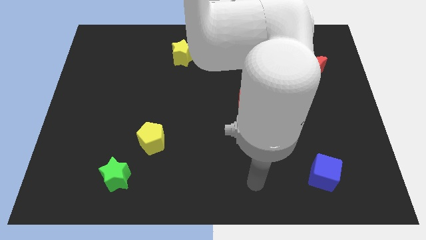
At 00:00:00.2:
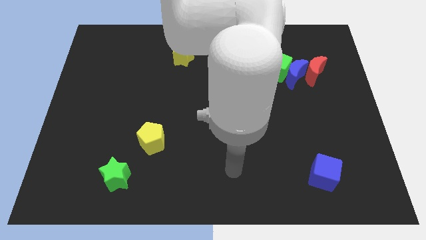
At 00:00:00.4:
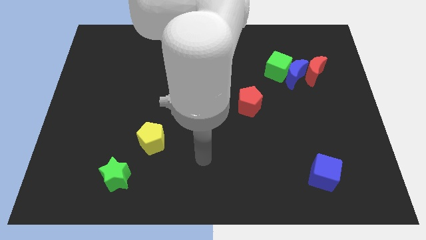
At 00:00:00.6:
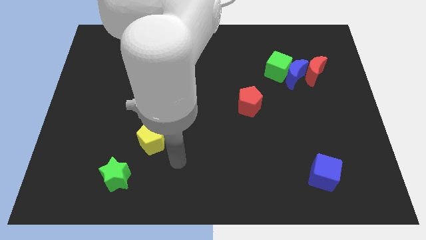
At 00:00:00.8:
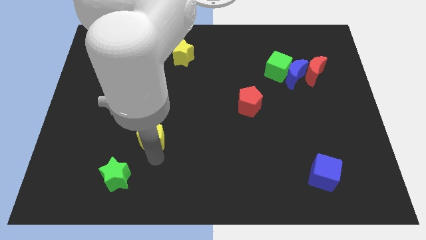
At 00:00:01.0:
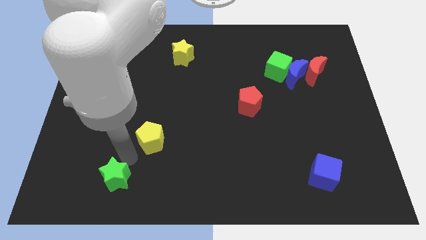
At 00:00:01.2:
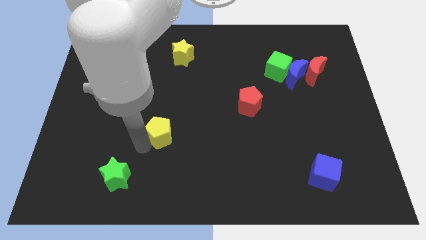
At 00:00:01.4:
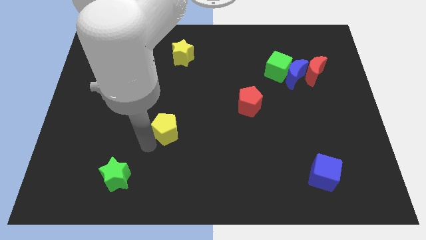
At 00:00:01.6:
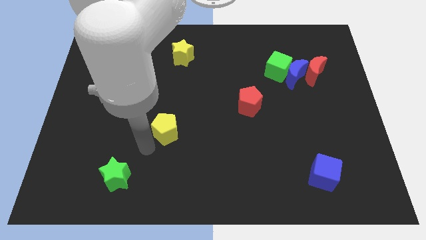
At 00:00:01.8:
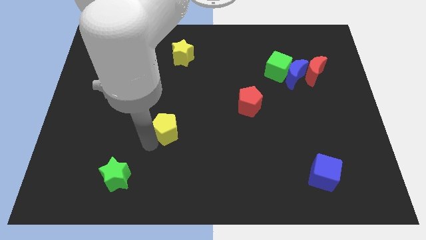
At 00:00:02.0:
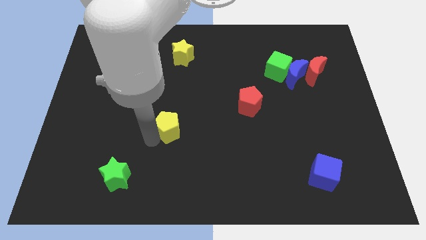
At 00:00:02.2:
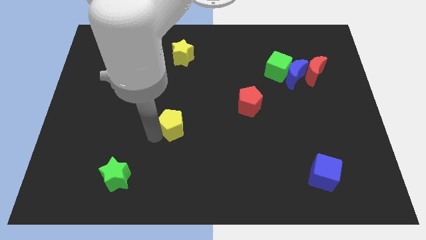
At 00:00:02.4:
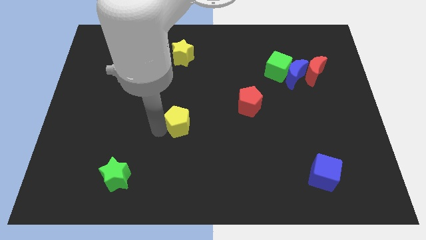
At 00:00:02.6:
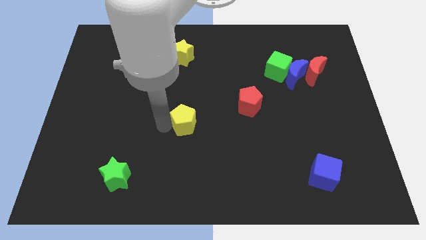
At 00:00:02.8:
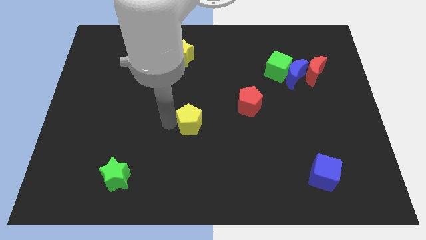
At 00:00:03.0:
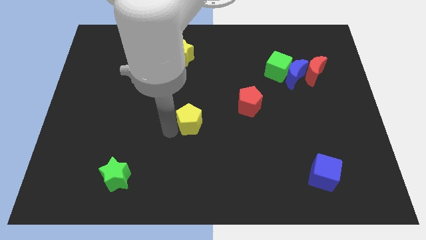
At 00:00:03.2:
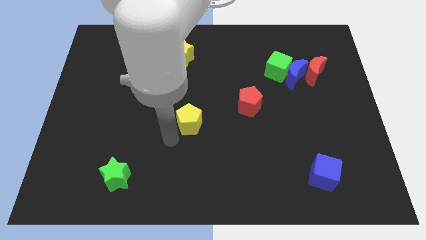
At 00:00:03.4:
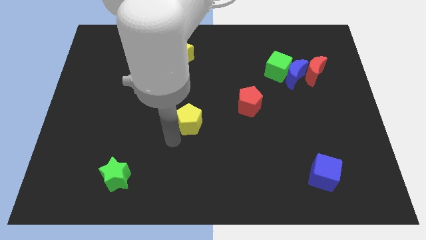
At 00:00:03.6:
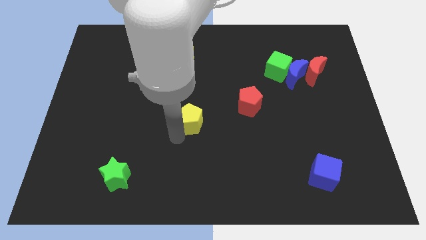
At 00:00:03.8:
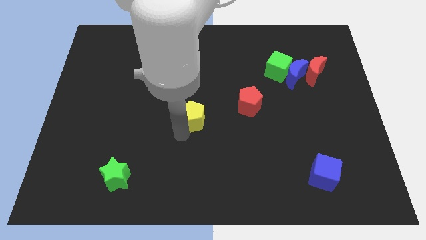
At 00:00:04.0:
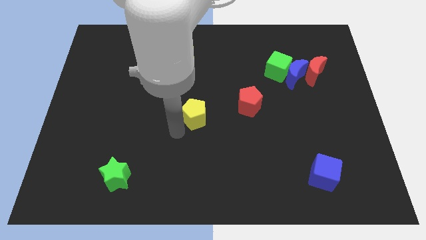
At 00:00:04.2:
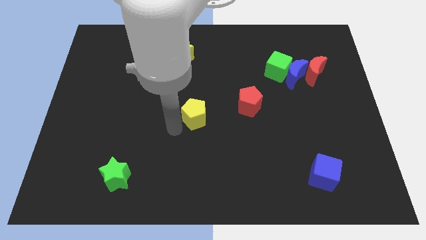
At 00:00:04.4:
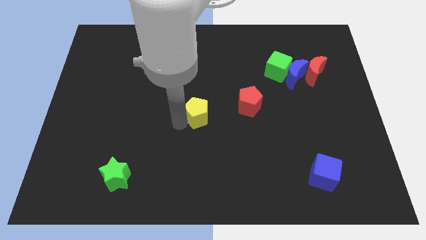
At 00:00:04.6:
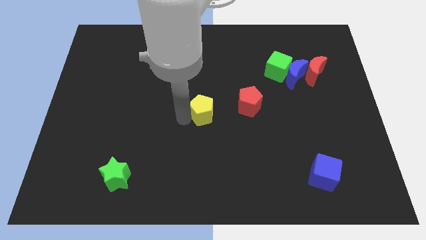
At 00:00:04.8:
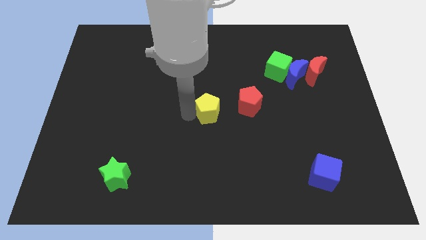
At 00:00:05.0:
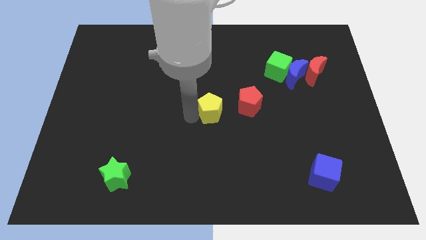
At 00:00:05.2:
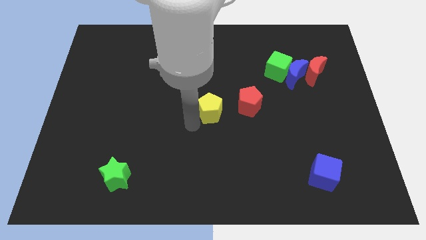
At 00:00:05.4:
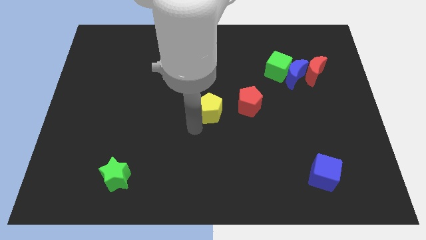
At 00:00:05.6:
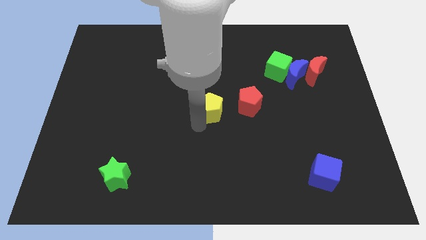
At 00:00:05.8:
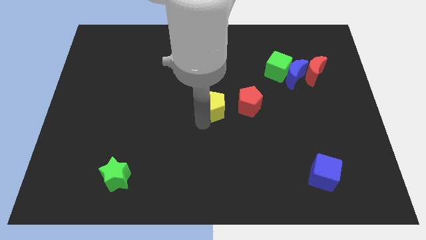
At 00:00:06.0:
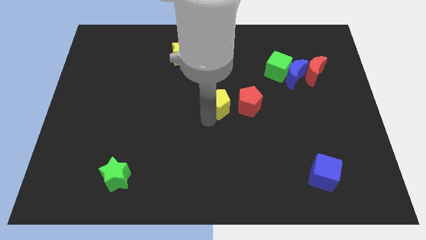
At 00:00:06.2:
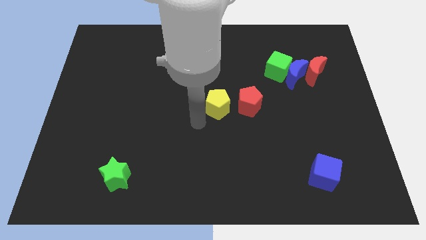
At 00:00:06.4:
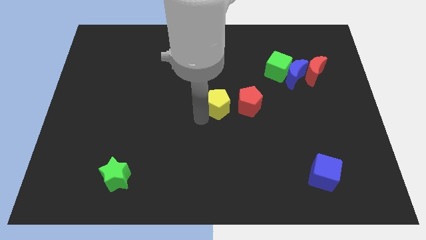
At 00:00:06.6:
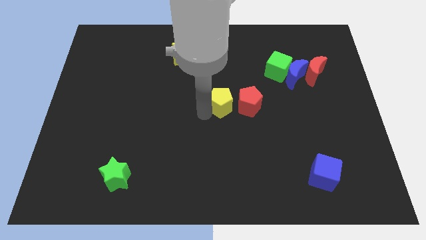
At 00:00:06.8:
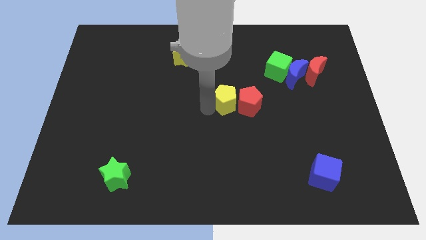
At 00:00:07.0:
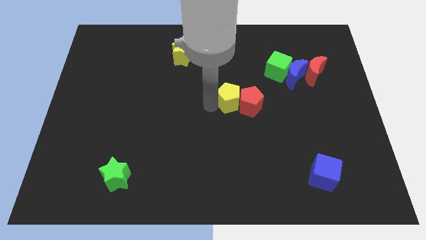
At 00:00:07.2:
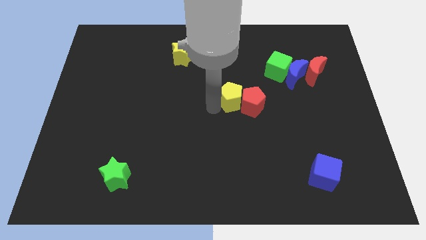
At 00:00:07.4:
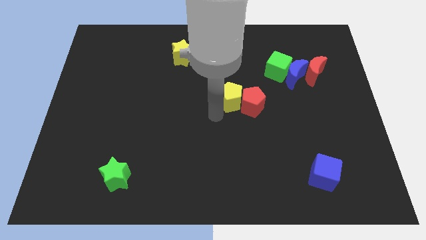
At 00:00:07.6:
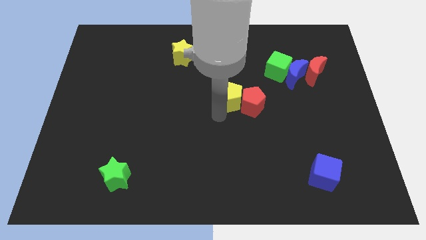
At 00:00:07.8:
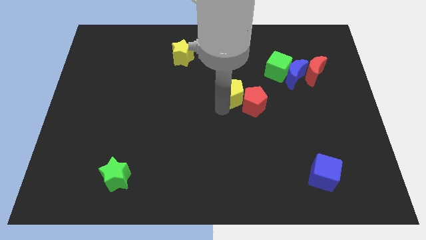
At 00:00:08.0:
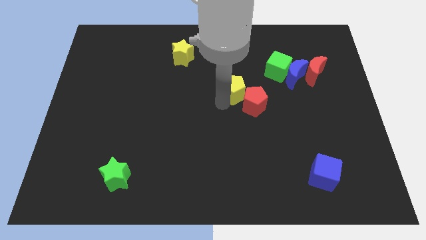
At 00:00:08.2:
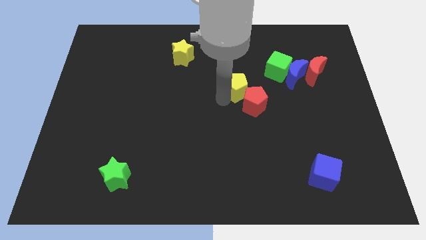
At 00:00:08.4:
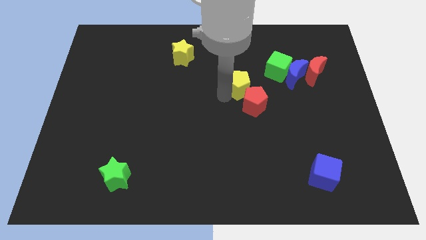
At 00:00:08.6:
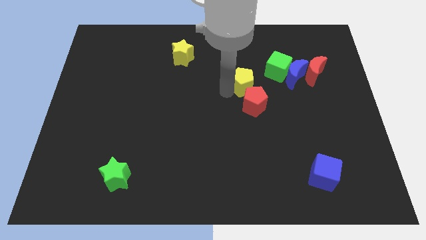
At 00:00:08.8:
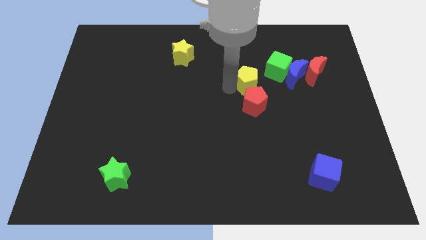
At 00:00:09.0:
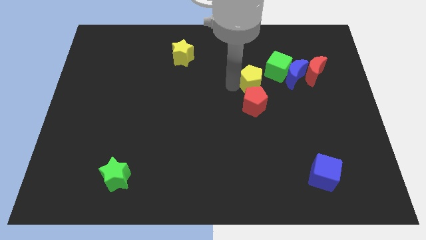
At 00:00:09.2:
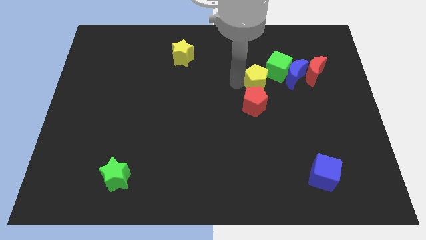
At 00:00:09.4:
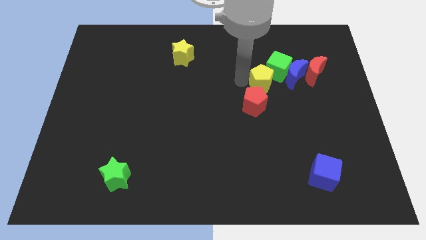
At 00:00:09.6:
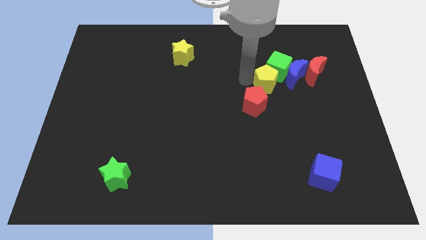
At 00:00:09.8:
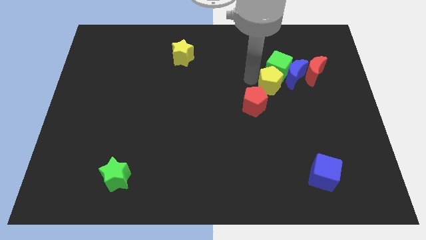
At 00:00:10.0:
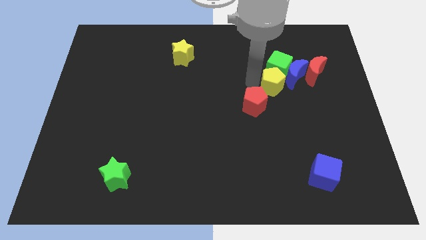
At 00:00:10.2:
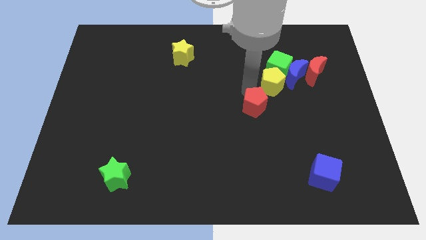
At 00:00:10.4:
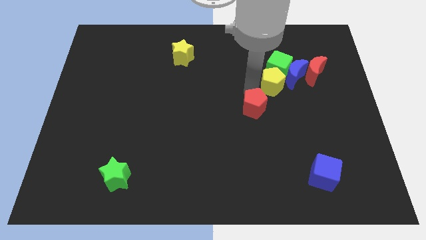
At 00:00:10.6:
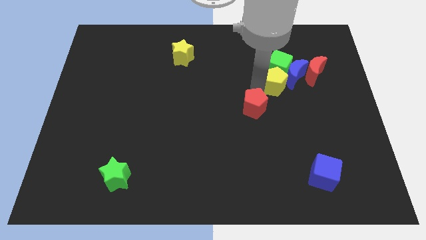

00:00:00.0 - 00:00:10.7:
slide the yellow pentagon next to the blue moon

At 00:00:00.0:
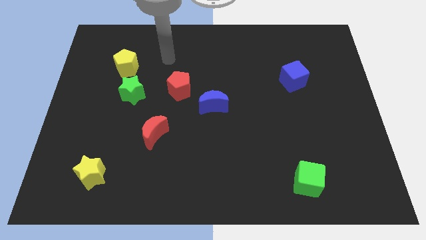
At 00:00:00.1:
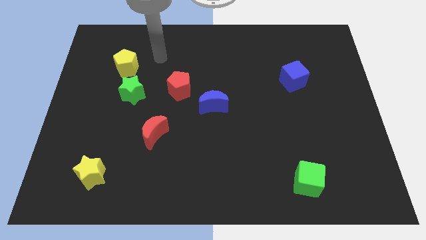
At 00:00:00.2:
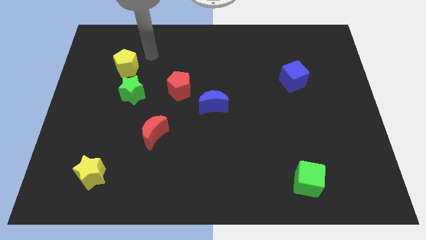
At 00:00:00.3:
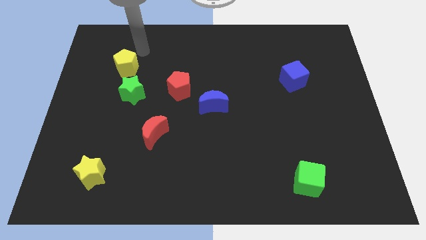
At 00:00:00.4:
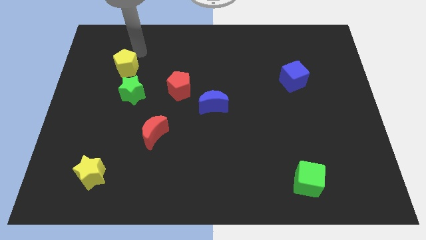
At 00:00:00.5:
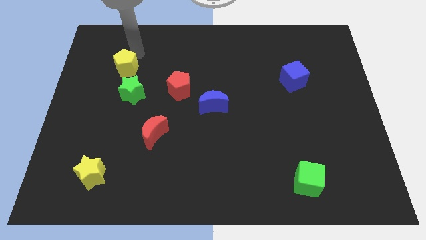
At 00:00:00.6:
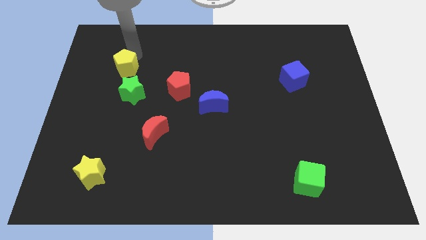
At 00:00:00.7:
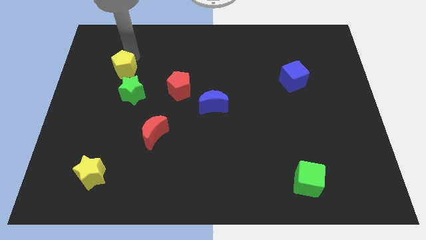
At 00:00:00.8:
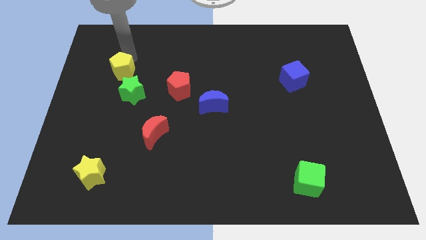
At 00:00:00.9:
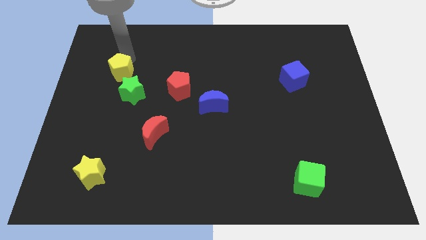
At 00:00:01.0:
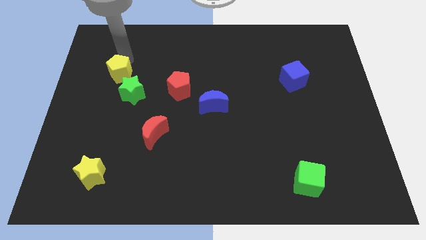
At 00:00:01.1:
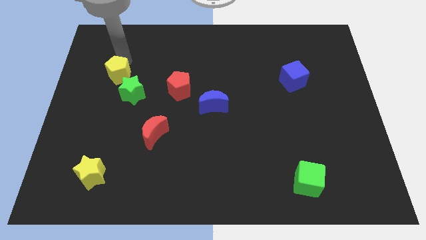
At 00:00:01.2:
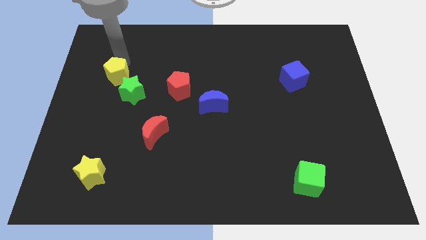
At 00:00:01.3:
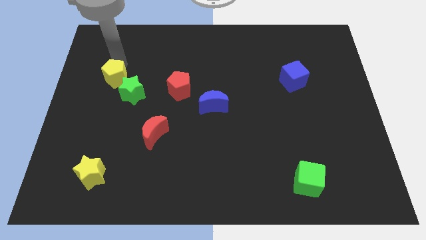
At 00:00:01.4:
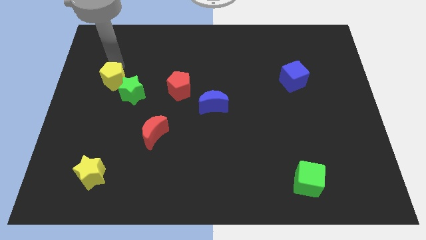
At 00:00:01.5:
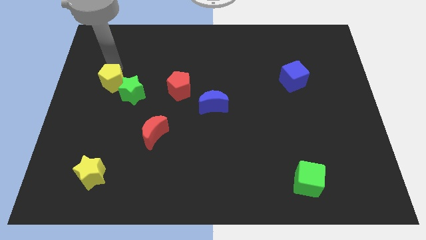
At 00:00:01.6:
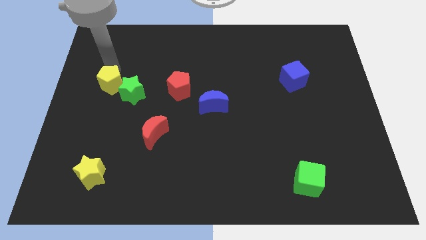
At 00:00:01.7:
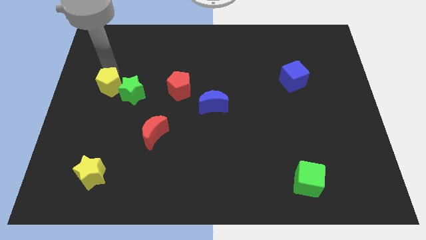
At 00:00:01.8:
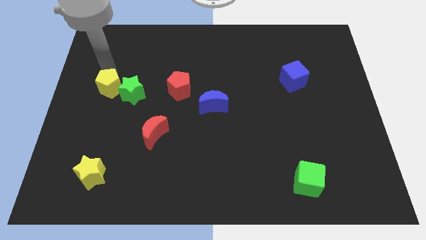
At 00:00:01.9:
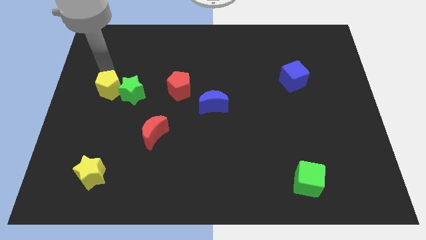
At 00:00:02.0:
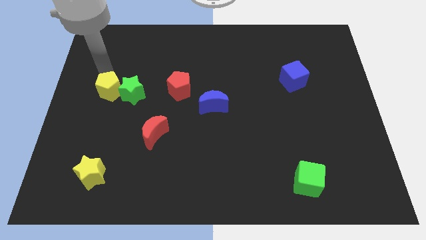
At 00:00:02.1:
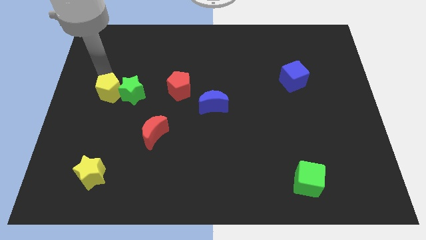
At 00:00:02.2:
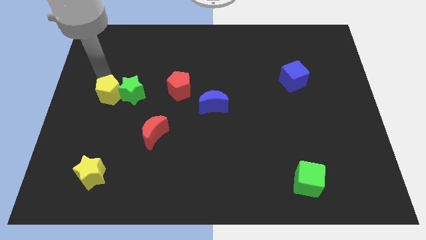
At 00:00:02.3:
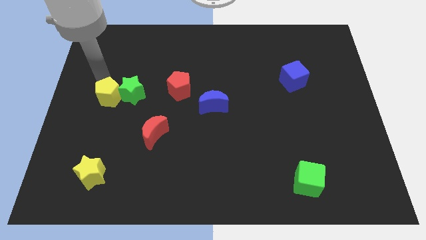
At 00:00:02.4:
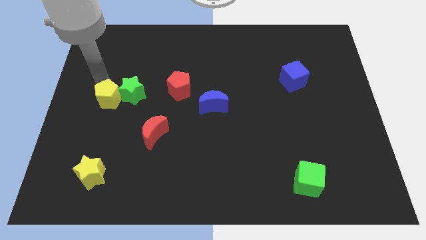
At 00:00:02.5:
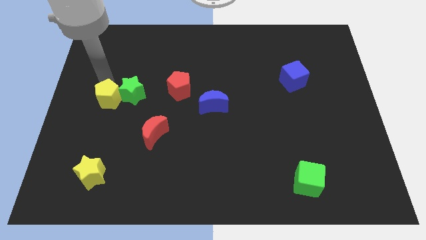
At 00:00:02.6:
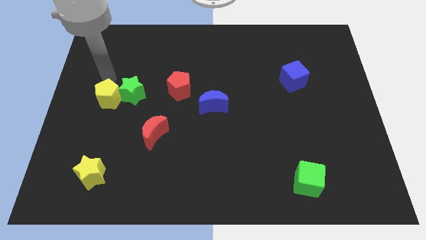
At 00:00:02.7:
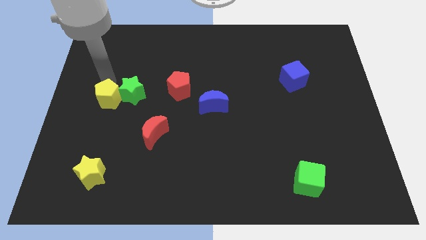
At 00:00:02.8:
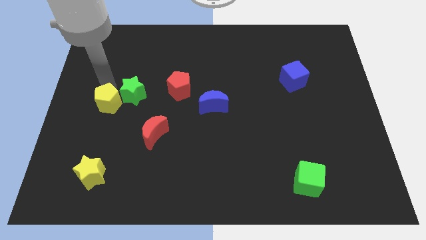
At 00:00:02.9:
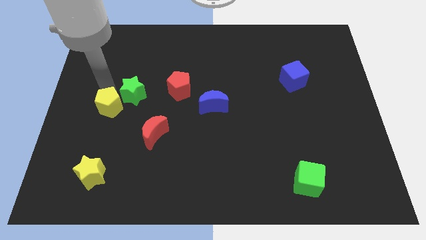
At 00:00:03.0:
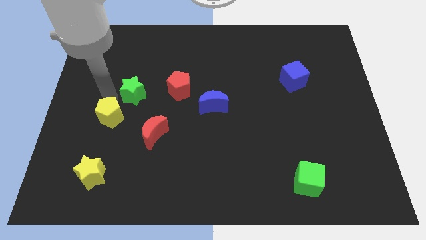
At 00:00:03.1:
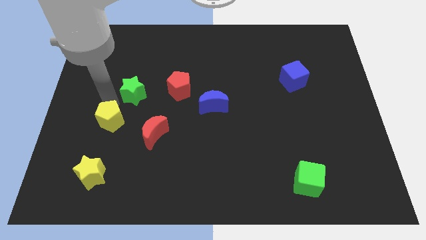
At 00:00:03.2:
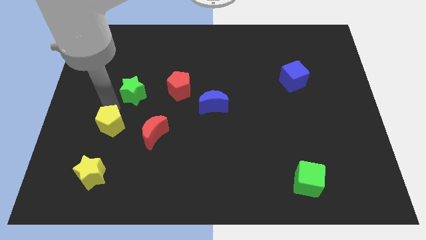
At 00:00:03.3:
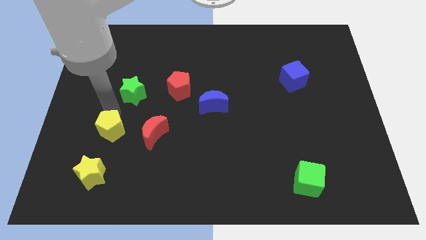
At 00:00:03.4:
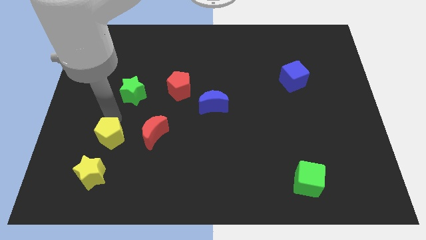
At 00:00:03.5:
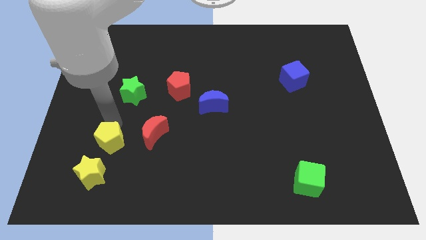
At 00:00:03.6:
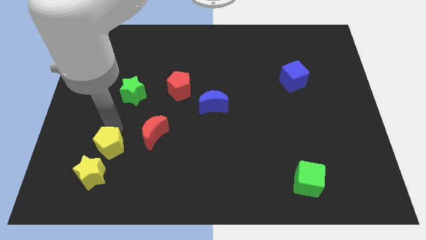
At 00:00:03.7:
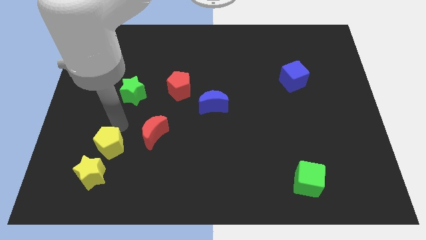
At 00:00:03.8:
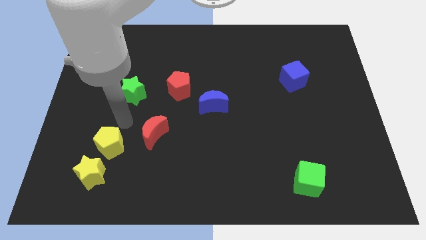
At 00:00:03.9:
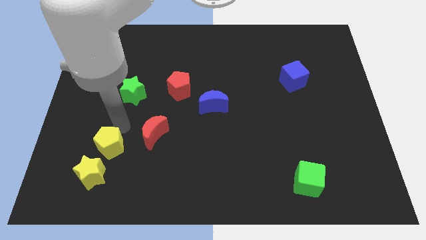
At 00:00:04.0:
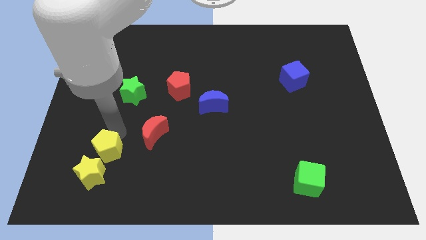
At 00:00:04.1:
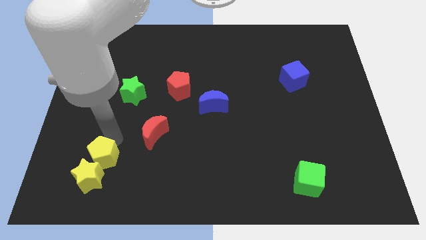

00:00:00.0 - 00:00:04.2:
put the yellow pentagon to the yellow star
